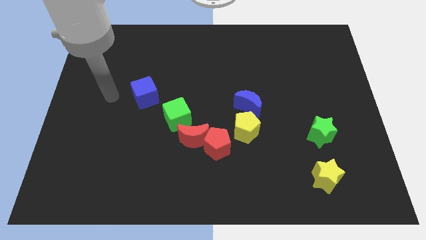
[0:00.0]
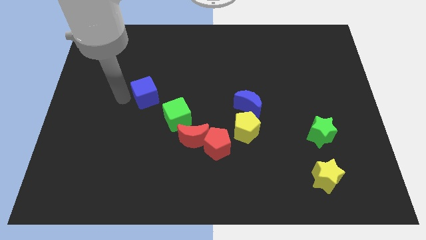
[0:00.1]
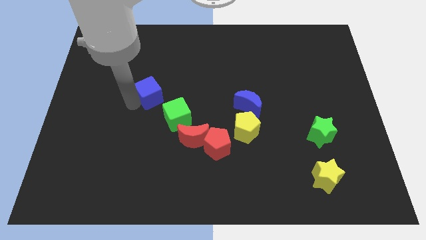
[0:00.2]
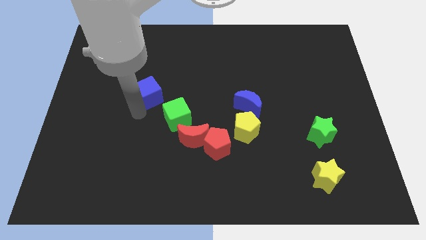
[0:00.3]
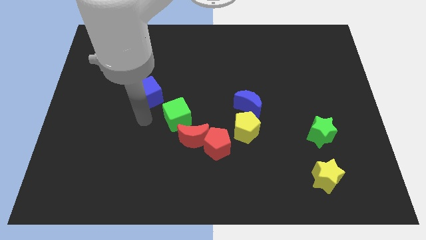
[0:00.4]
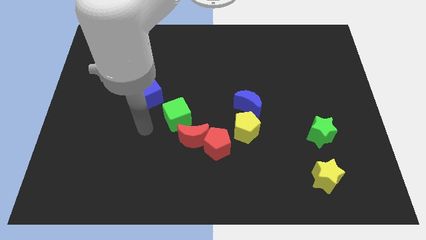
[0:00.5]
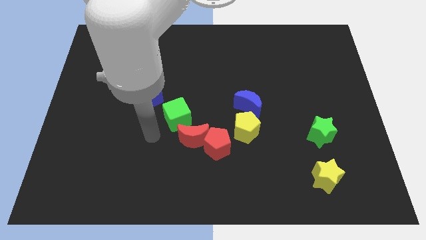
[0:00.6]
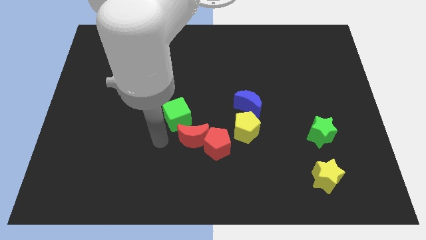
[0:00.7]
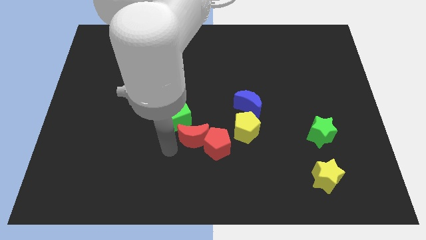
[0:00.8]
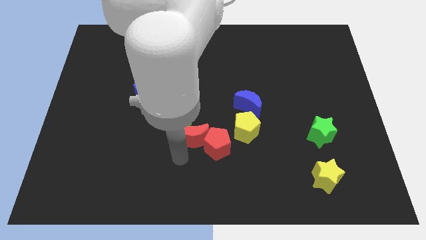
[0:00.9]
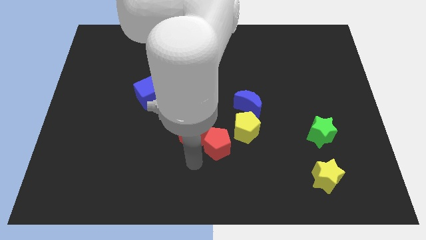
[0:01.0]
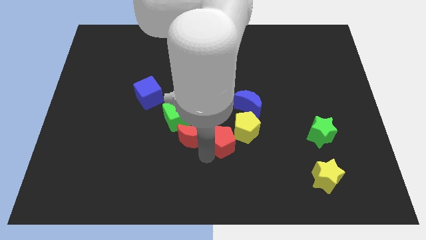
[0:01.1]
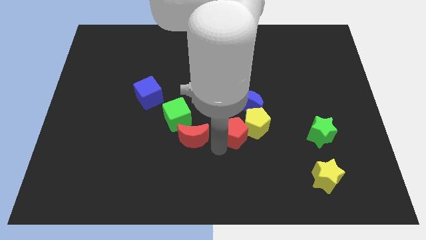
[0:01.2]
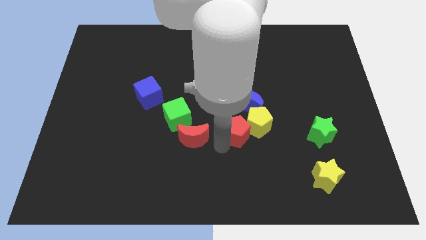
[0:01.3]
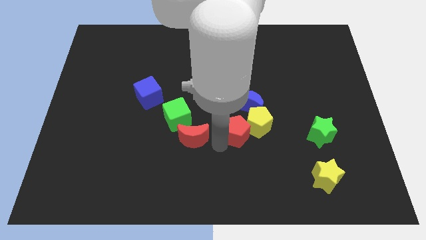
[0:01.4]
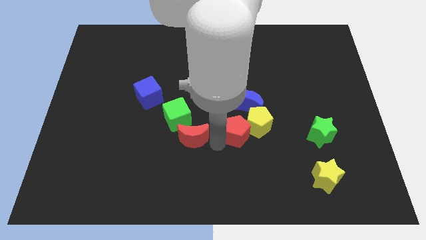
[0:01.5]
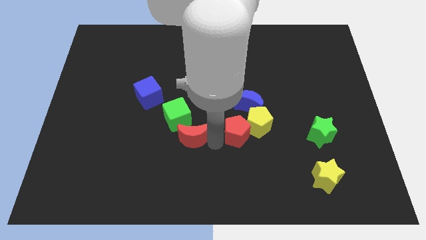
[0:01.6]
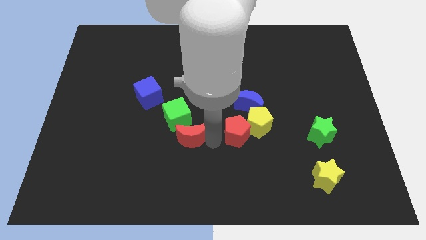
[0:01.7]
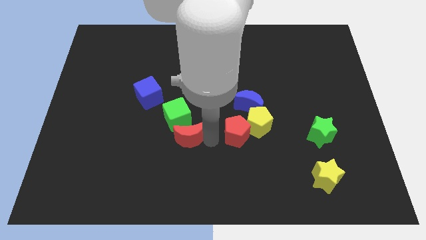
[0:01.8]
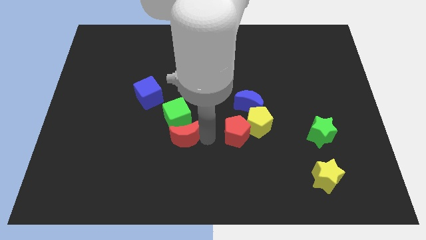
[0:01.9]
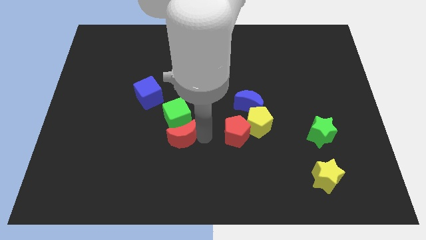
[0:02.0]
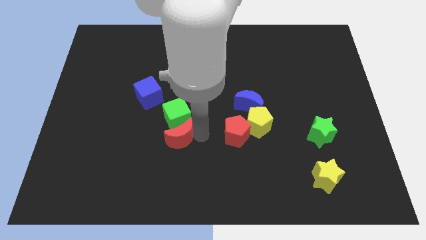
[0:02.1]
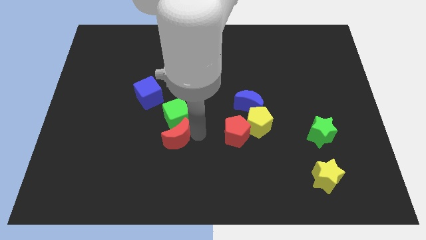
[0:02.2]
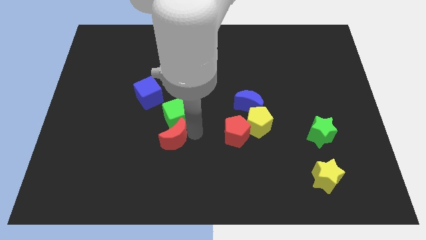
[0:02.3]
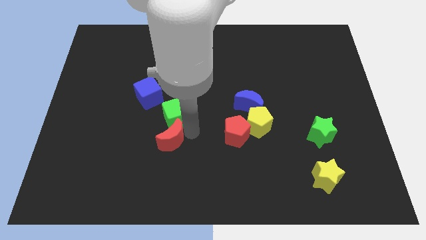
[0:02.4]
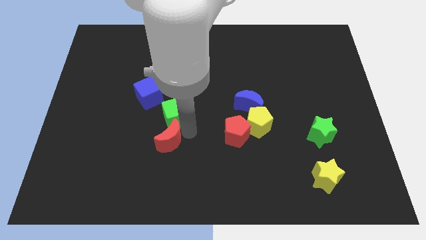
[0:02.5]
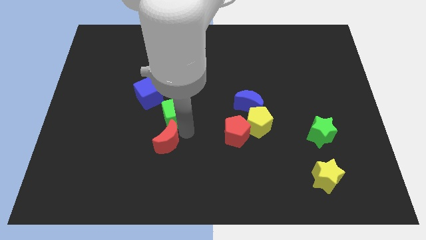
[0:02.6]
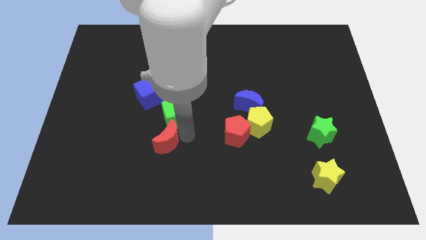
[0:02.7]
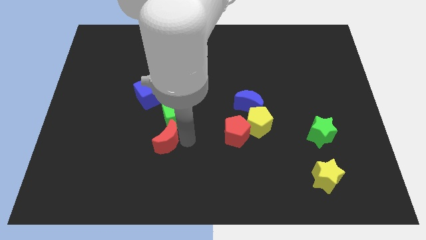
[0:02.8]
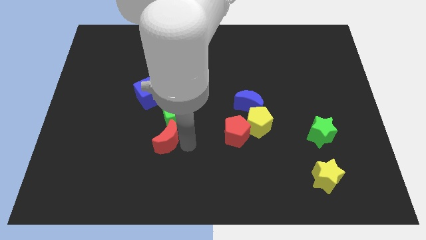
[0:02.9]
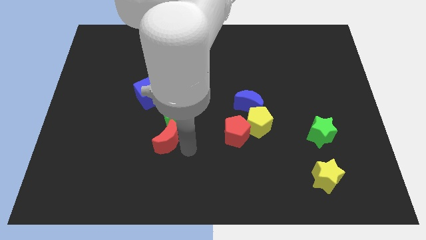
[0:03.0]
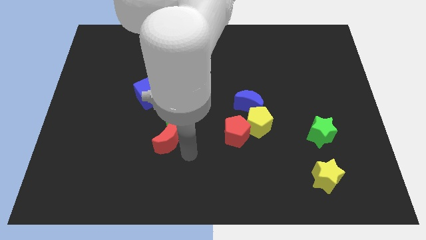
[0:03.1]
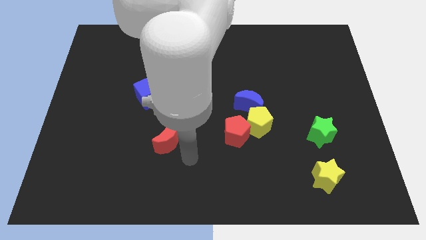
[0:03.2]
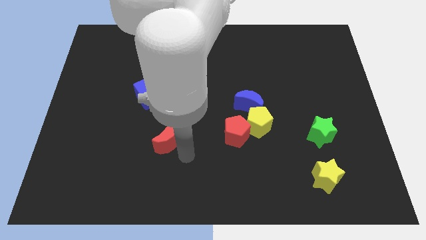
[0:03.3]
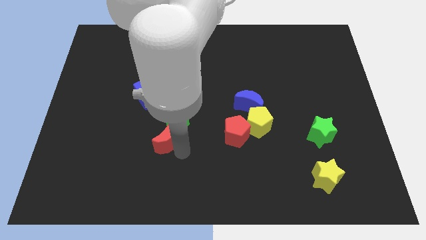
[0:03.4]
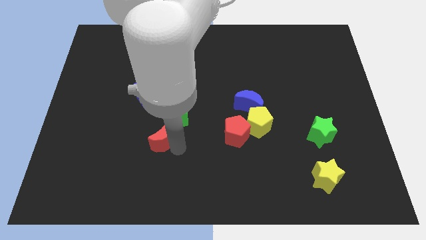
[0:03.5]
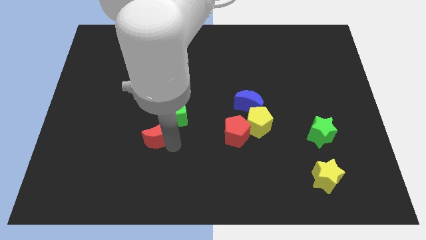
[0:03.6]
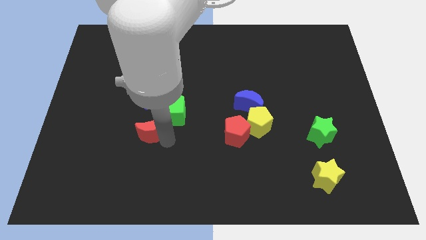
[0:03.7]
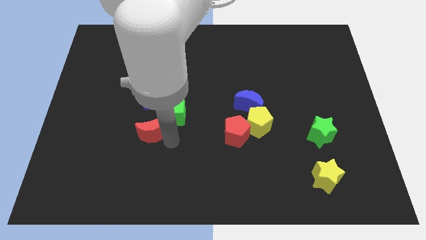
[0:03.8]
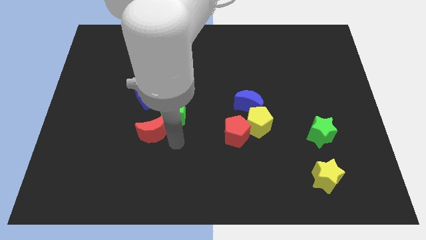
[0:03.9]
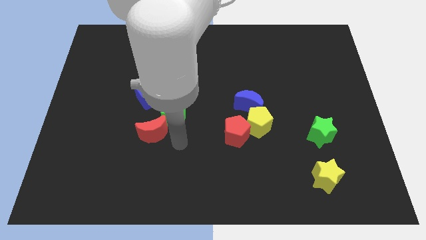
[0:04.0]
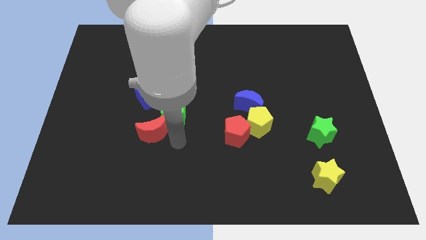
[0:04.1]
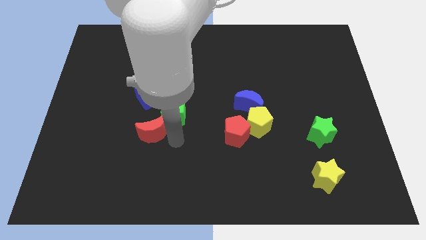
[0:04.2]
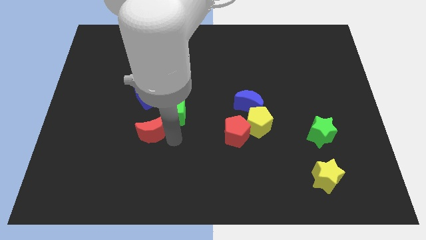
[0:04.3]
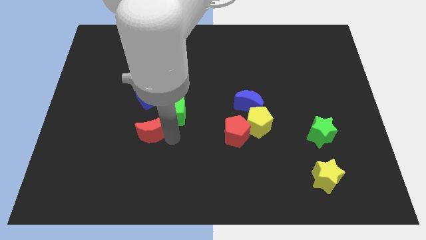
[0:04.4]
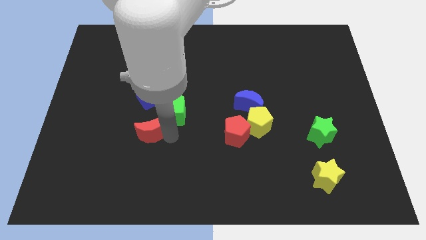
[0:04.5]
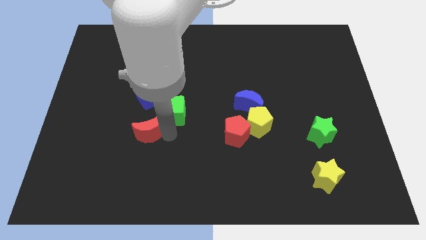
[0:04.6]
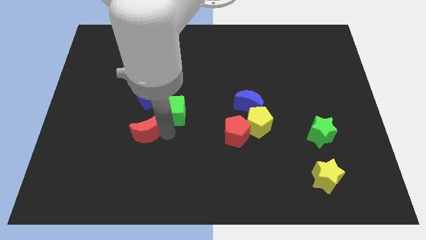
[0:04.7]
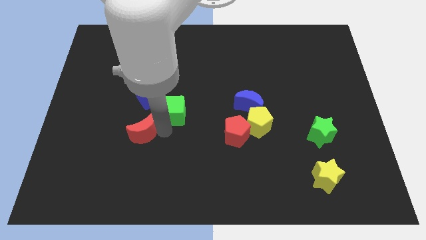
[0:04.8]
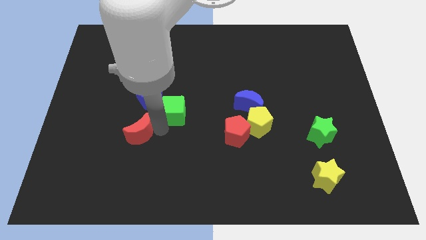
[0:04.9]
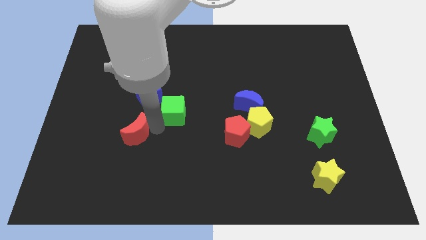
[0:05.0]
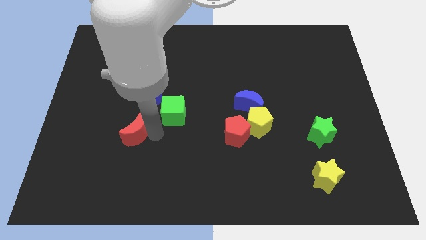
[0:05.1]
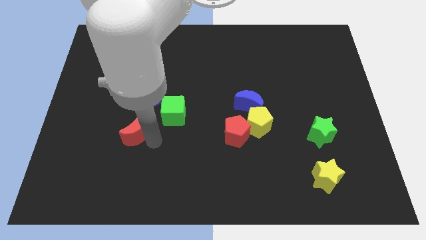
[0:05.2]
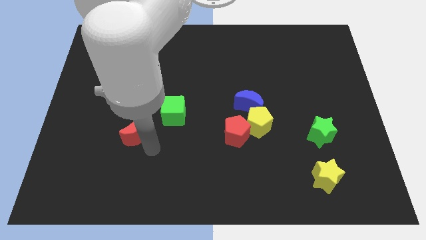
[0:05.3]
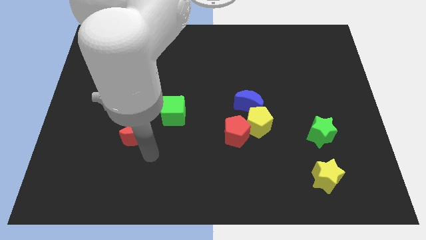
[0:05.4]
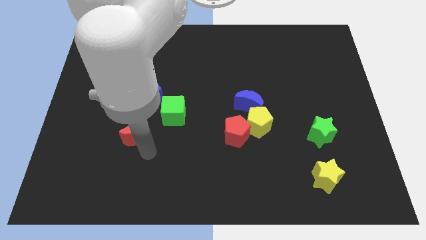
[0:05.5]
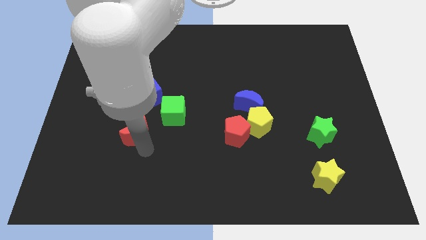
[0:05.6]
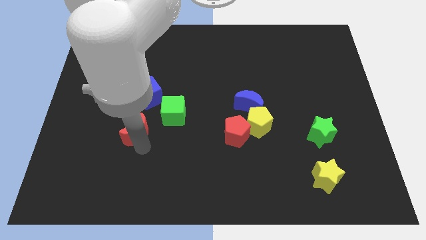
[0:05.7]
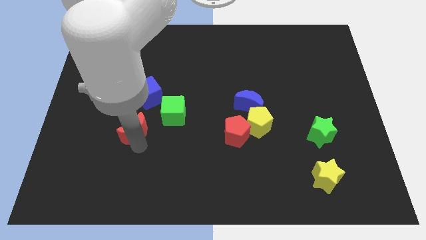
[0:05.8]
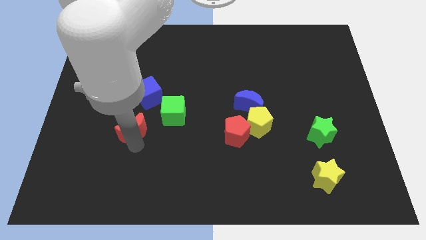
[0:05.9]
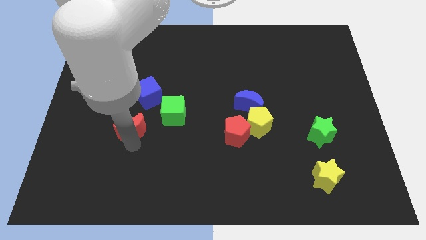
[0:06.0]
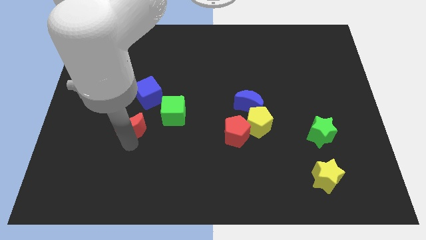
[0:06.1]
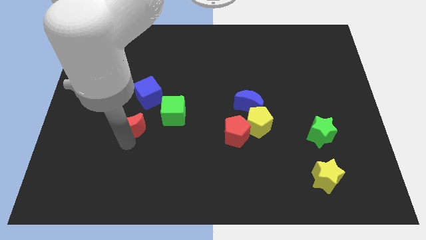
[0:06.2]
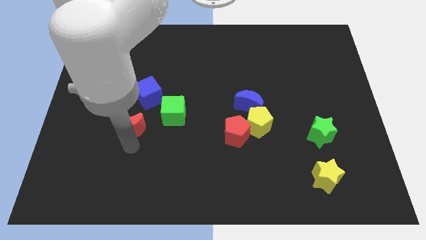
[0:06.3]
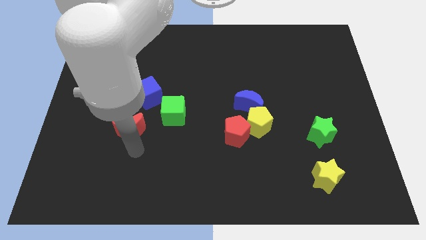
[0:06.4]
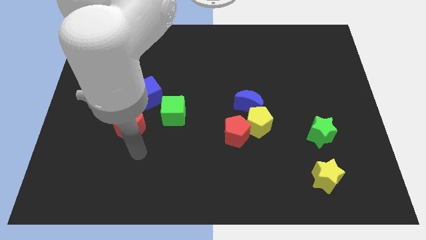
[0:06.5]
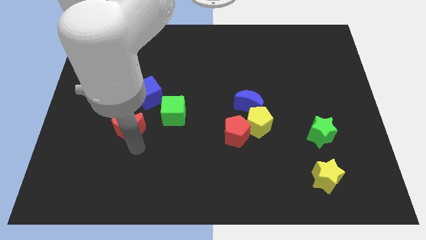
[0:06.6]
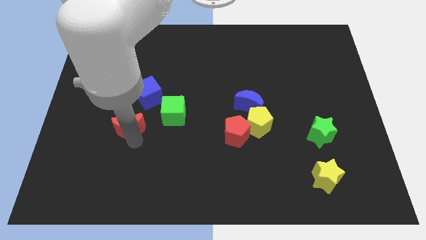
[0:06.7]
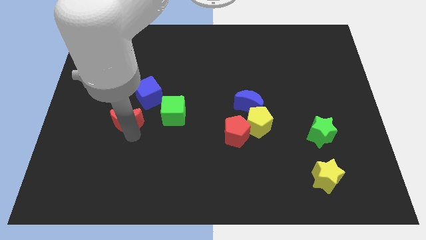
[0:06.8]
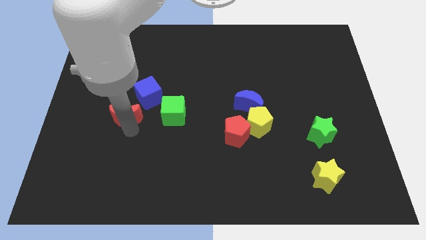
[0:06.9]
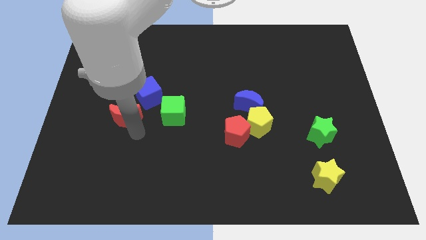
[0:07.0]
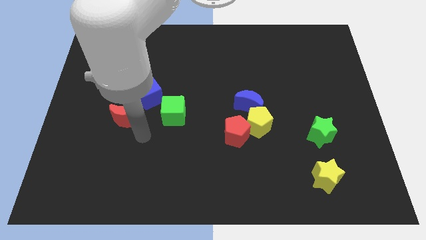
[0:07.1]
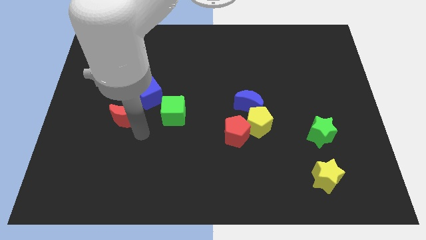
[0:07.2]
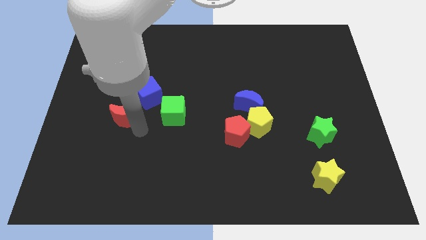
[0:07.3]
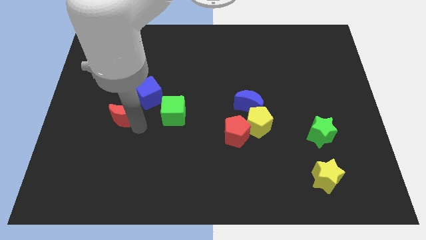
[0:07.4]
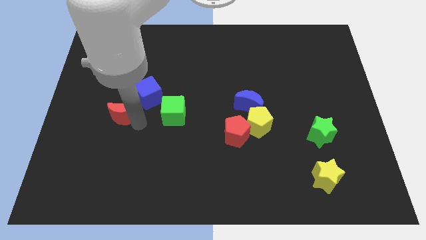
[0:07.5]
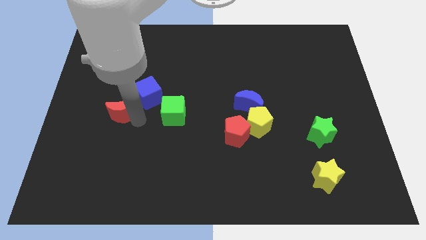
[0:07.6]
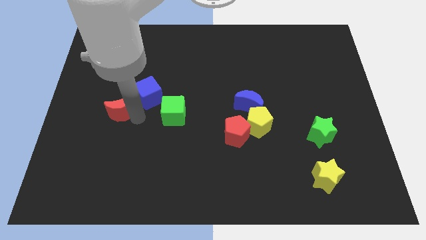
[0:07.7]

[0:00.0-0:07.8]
push the red moon to the left side of the blue cube
